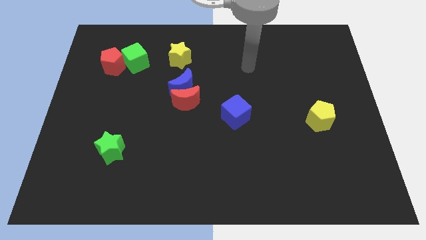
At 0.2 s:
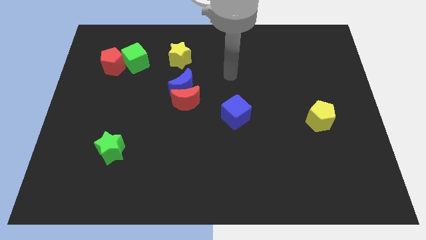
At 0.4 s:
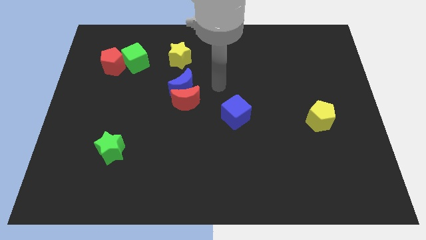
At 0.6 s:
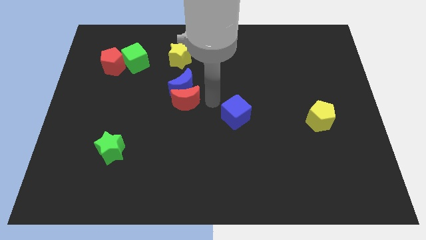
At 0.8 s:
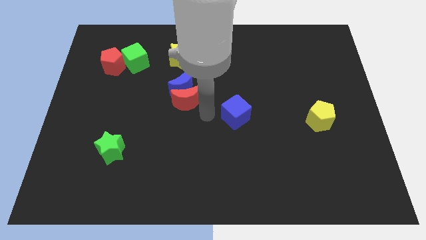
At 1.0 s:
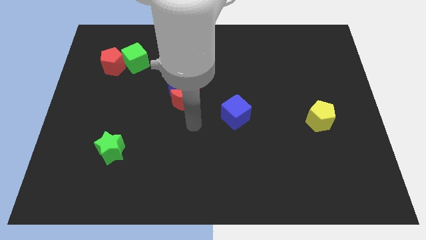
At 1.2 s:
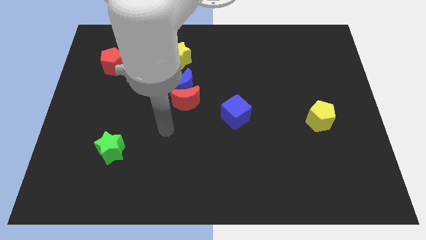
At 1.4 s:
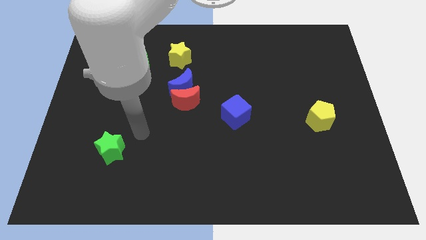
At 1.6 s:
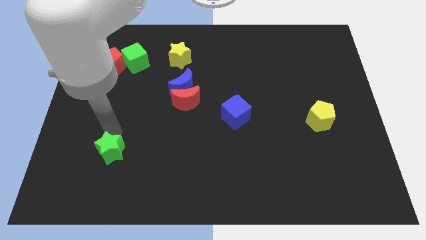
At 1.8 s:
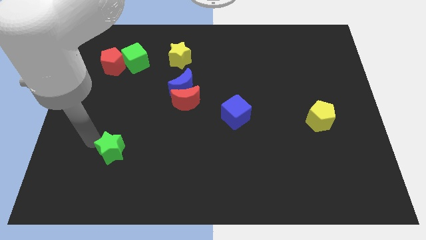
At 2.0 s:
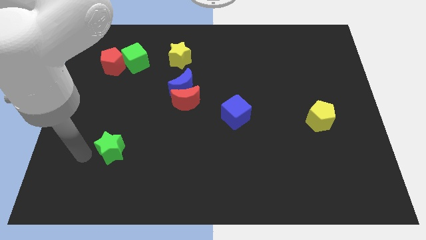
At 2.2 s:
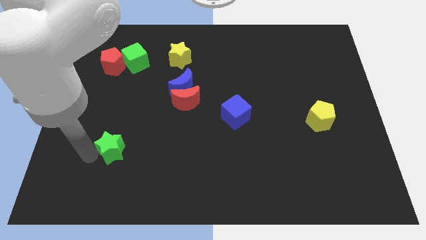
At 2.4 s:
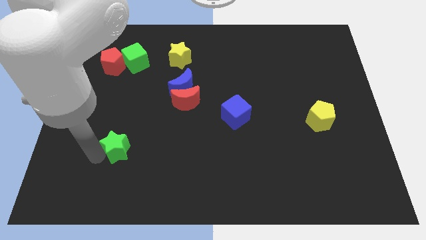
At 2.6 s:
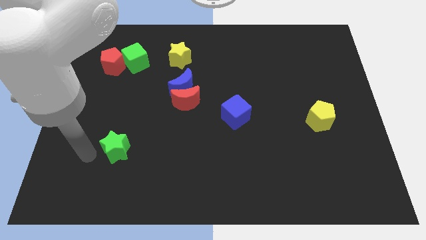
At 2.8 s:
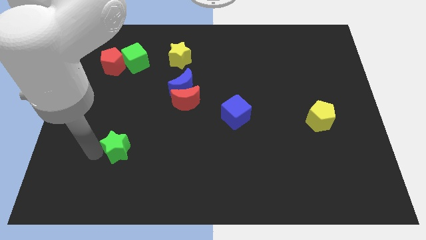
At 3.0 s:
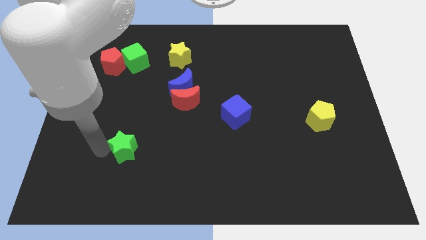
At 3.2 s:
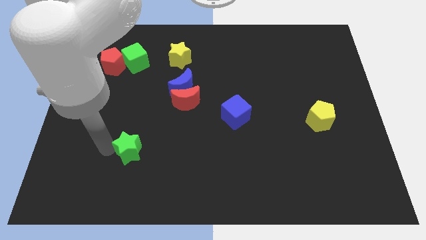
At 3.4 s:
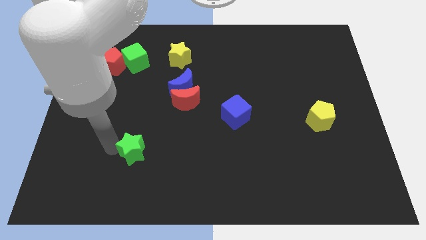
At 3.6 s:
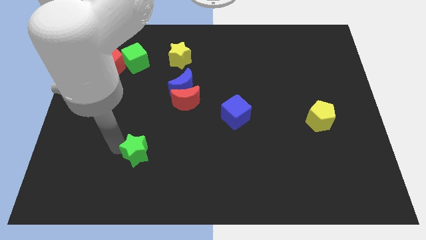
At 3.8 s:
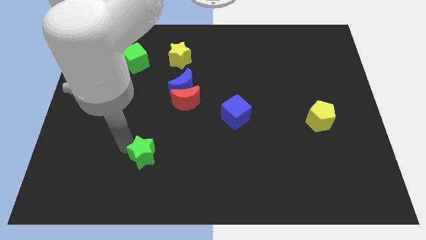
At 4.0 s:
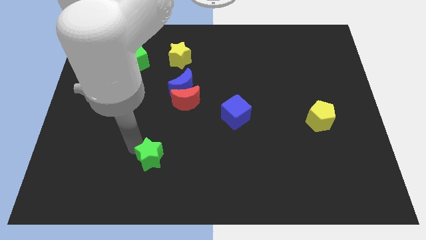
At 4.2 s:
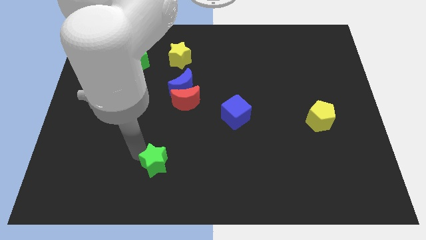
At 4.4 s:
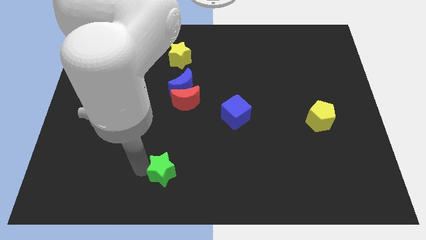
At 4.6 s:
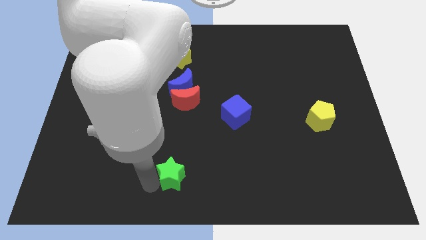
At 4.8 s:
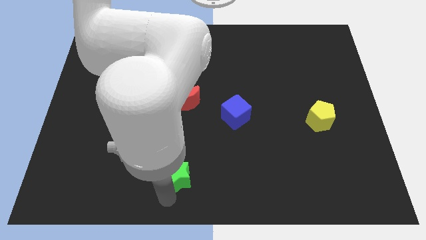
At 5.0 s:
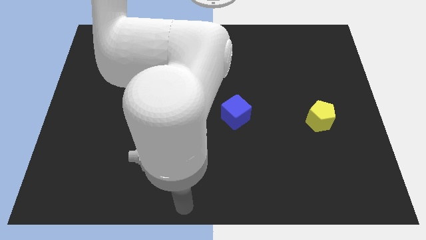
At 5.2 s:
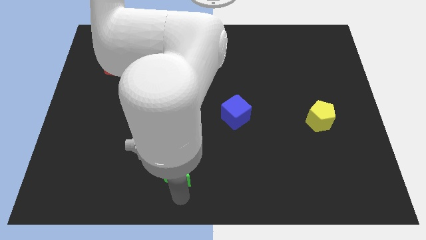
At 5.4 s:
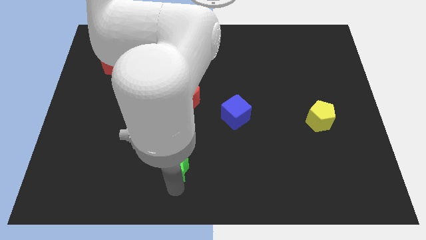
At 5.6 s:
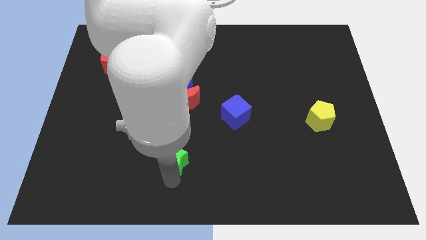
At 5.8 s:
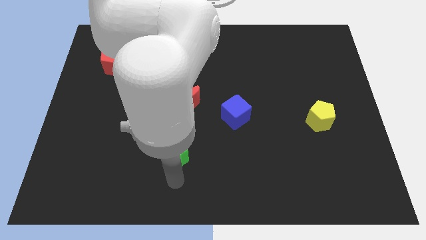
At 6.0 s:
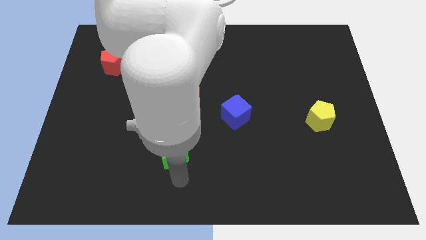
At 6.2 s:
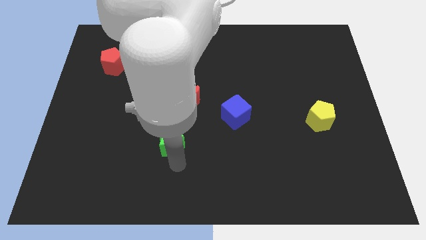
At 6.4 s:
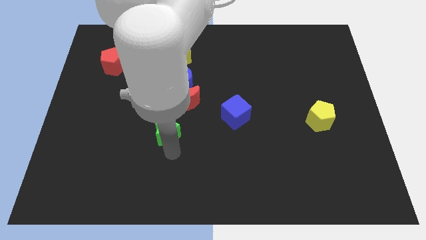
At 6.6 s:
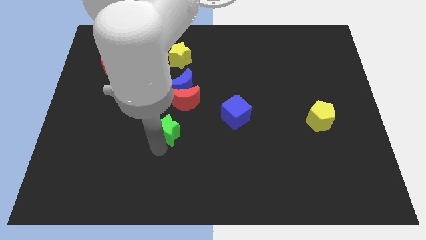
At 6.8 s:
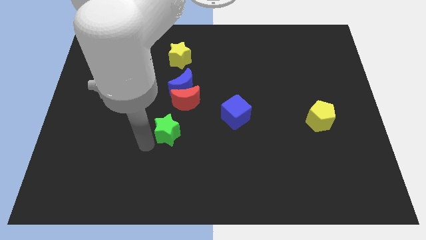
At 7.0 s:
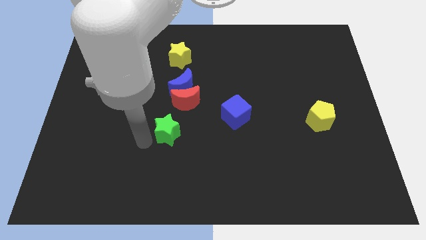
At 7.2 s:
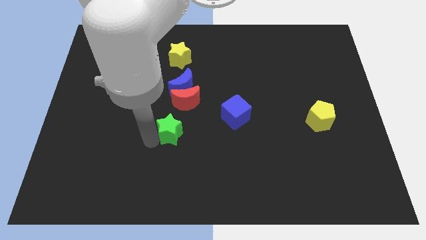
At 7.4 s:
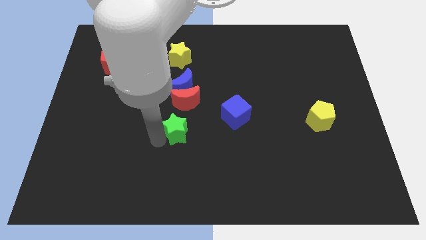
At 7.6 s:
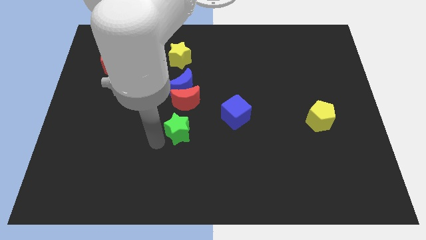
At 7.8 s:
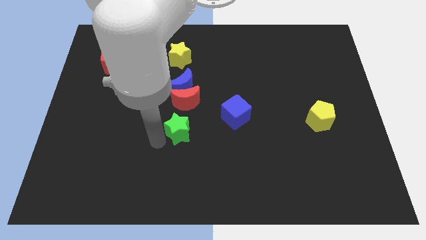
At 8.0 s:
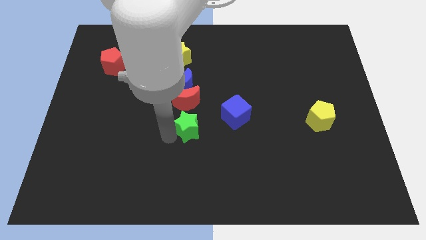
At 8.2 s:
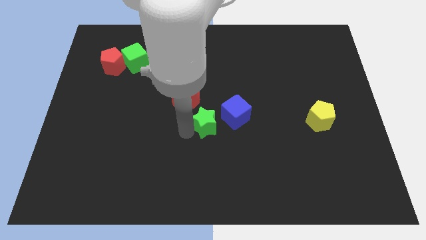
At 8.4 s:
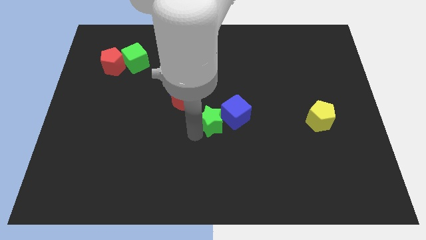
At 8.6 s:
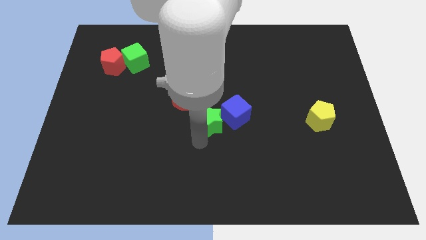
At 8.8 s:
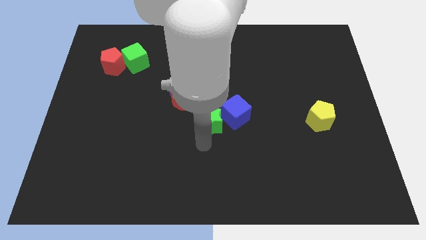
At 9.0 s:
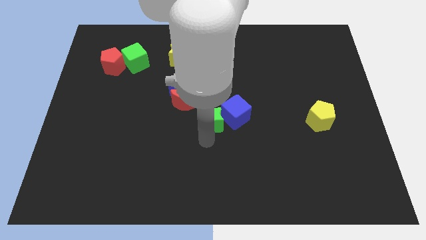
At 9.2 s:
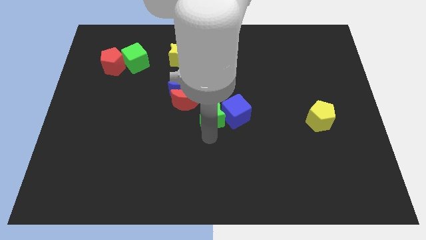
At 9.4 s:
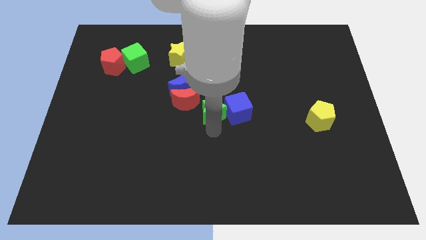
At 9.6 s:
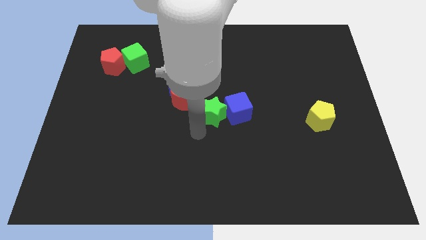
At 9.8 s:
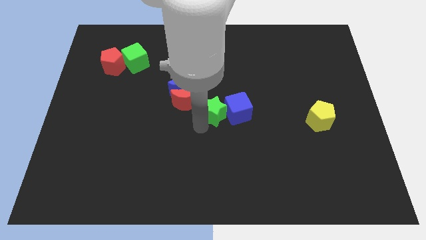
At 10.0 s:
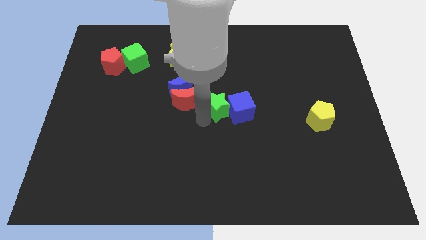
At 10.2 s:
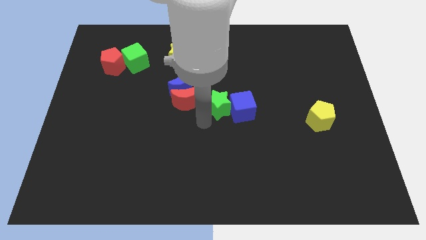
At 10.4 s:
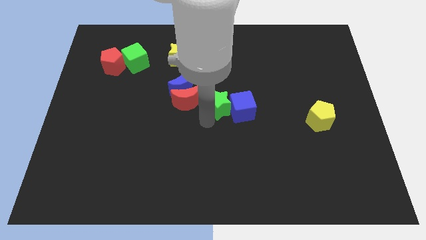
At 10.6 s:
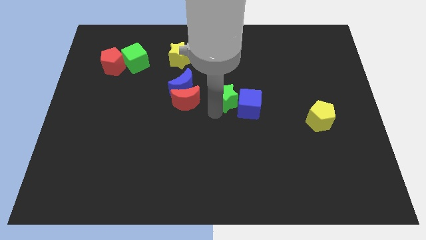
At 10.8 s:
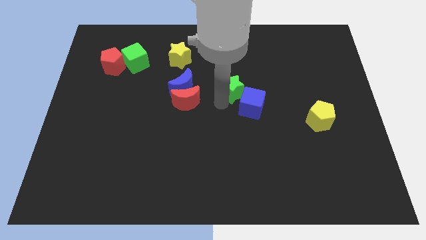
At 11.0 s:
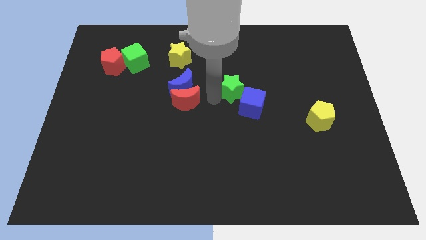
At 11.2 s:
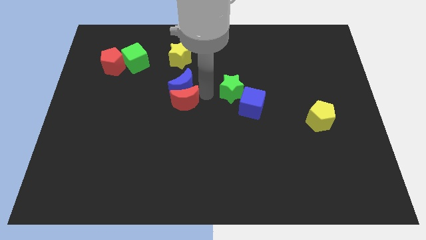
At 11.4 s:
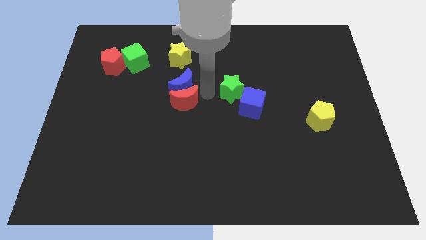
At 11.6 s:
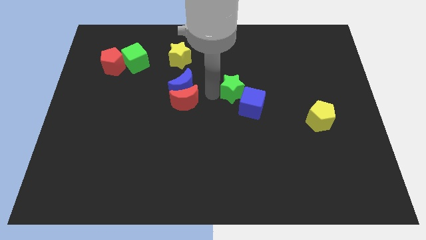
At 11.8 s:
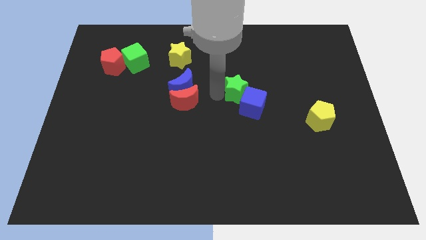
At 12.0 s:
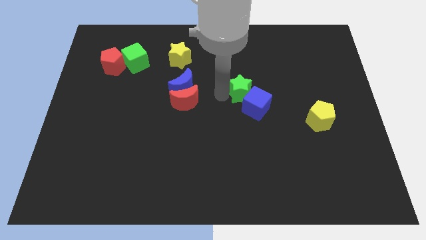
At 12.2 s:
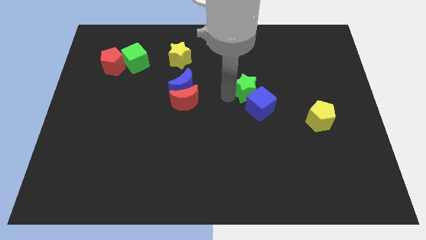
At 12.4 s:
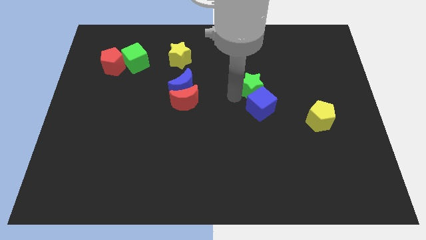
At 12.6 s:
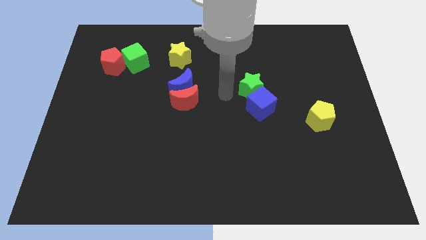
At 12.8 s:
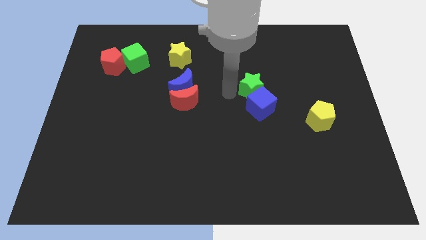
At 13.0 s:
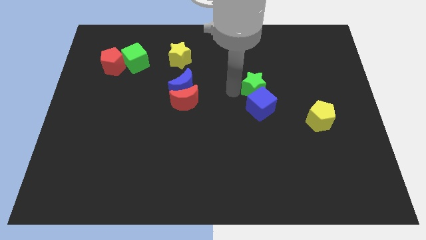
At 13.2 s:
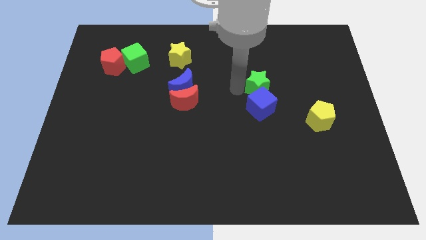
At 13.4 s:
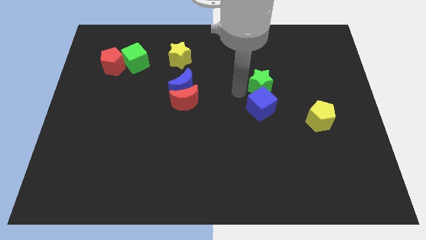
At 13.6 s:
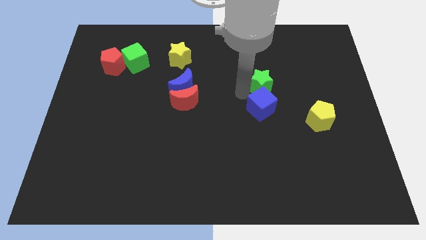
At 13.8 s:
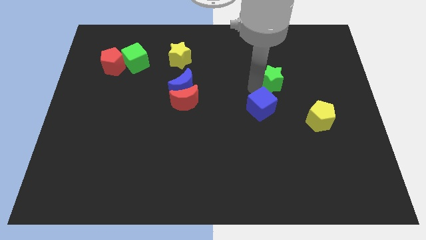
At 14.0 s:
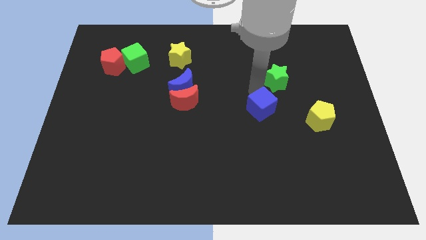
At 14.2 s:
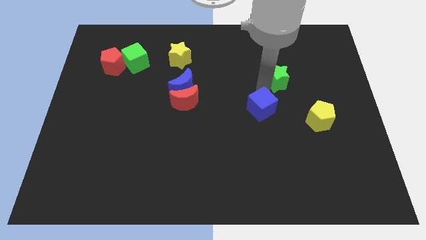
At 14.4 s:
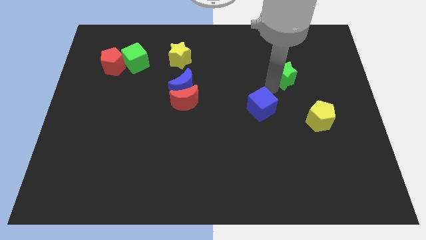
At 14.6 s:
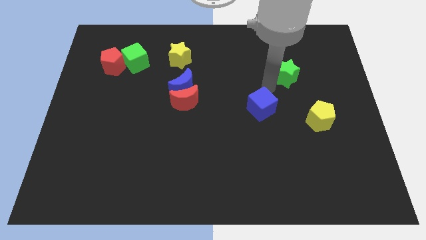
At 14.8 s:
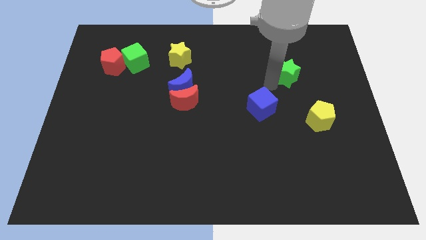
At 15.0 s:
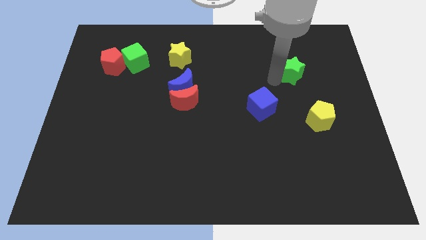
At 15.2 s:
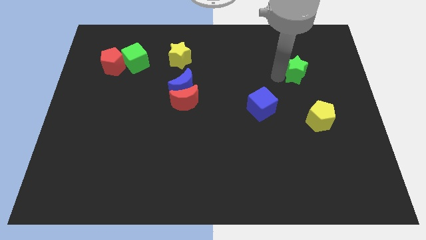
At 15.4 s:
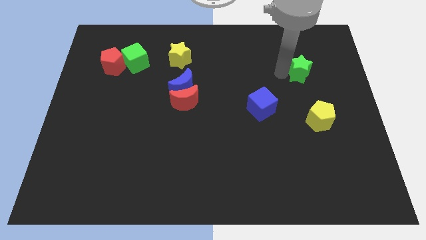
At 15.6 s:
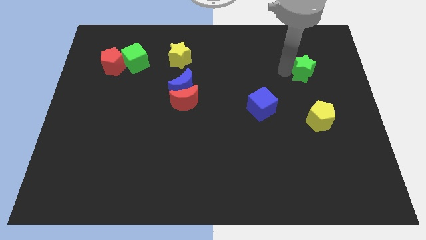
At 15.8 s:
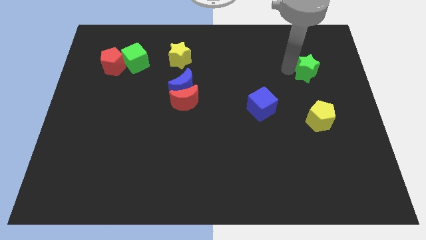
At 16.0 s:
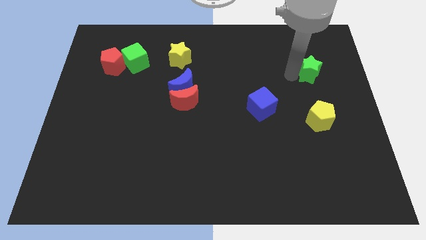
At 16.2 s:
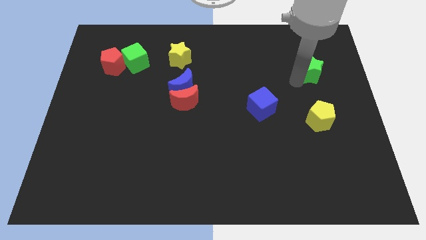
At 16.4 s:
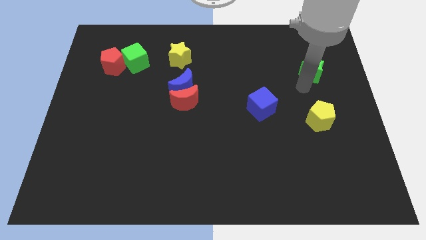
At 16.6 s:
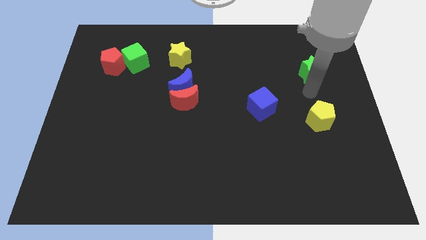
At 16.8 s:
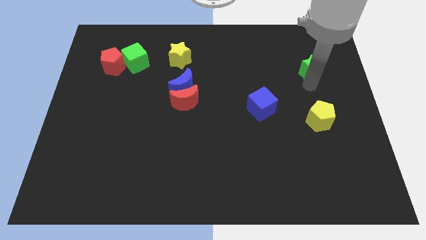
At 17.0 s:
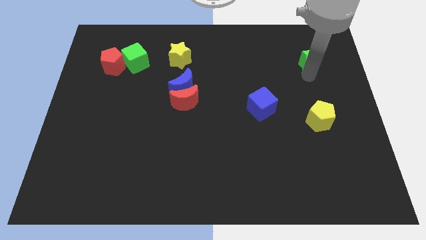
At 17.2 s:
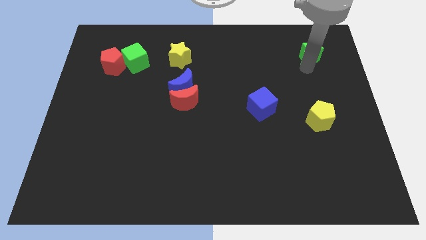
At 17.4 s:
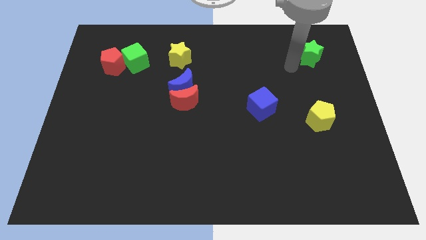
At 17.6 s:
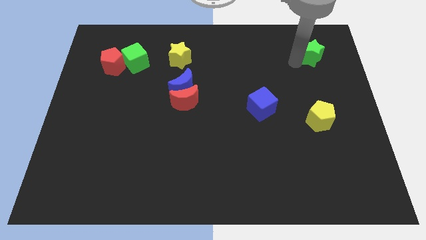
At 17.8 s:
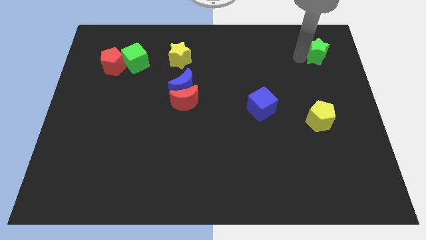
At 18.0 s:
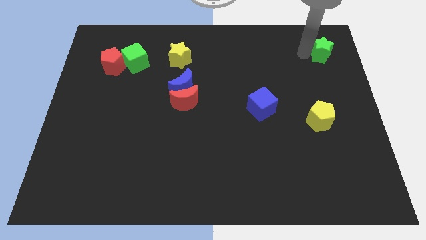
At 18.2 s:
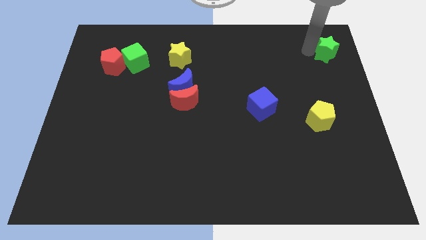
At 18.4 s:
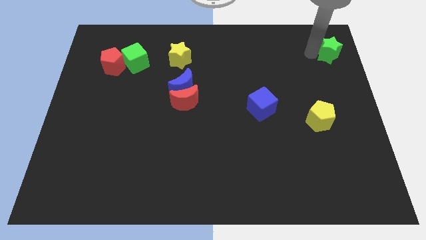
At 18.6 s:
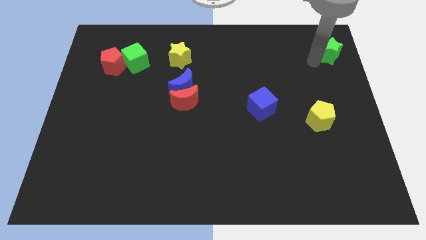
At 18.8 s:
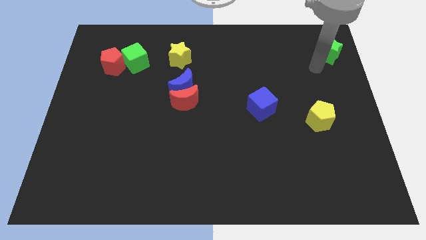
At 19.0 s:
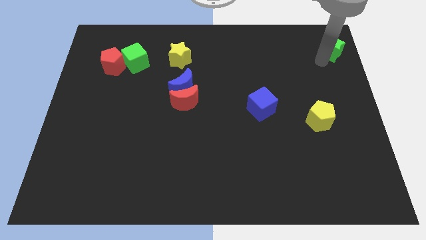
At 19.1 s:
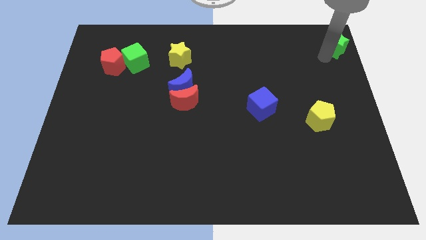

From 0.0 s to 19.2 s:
slide the green star to the top right of the board
